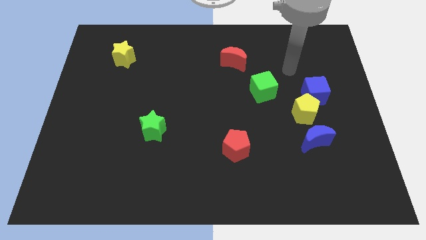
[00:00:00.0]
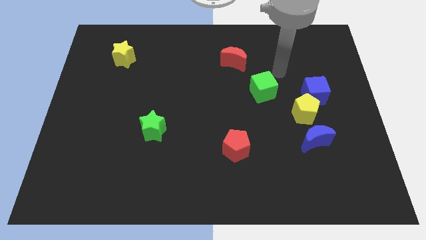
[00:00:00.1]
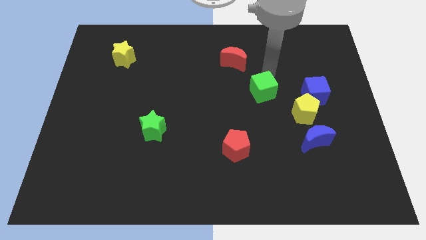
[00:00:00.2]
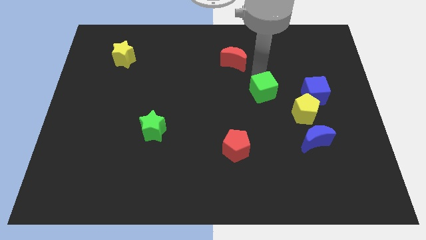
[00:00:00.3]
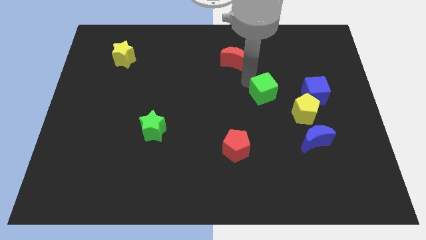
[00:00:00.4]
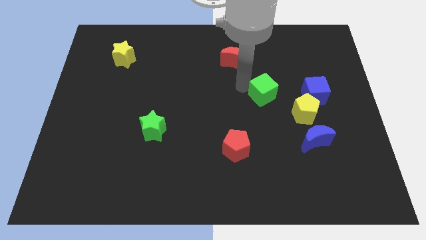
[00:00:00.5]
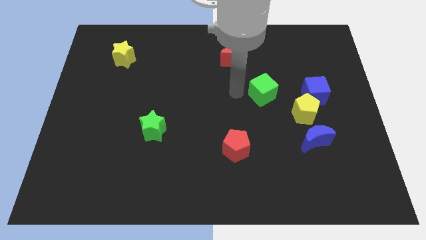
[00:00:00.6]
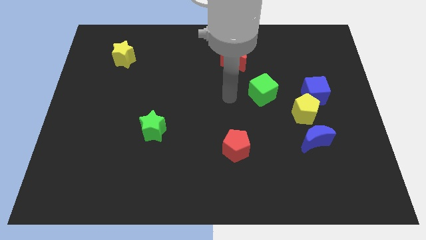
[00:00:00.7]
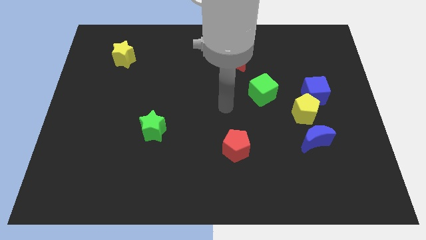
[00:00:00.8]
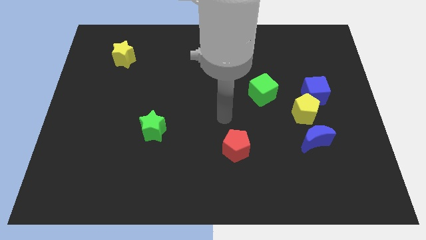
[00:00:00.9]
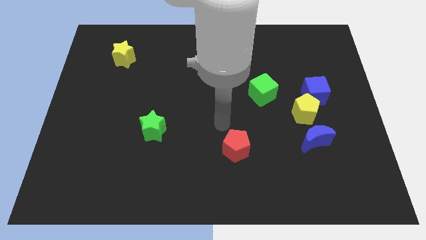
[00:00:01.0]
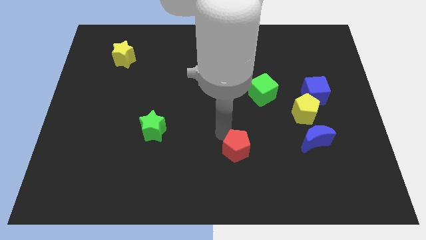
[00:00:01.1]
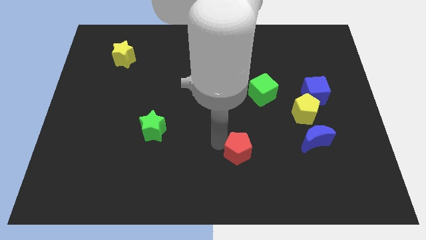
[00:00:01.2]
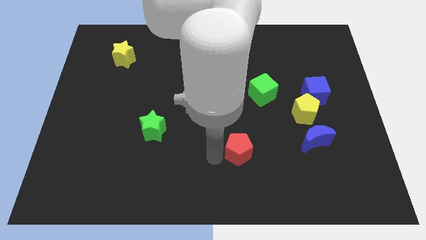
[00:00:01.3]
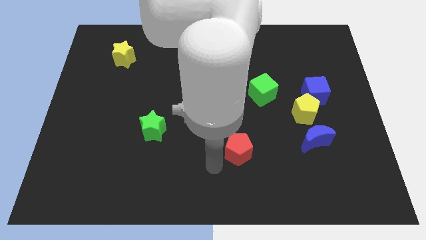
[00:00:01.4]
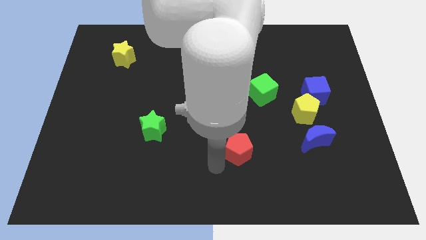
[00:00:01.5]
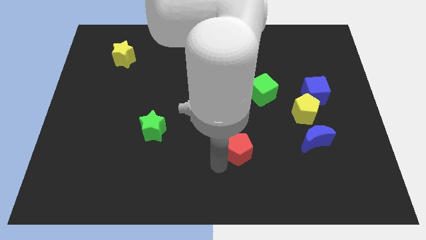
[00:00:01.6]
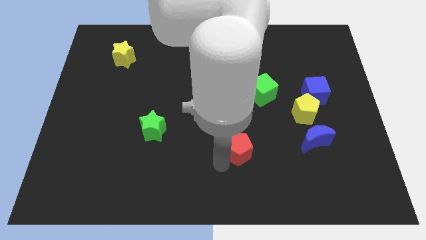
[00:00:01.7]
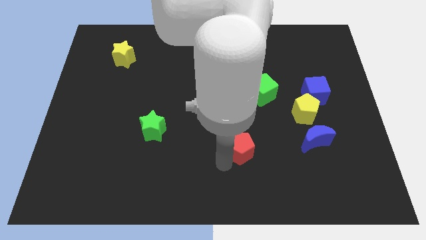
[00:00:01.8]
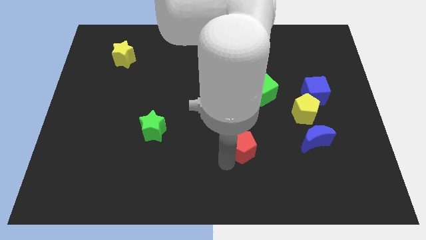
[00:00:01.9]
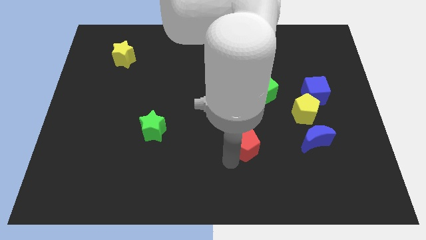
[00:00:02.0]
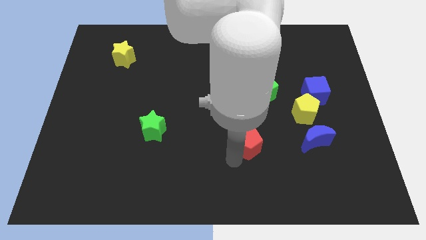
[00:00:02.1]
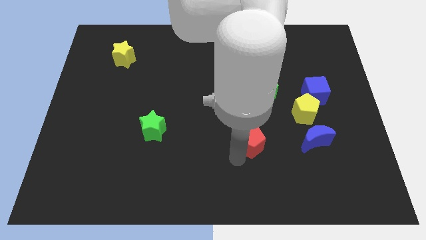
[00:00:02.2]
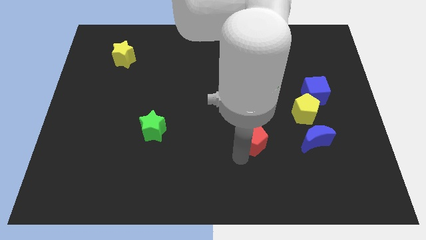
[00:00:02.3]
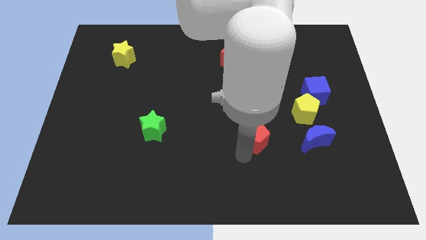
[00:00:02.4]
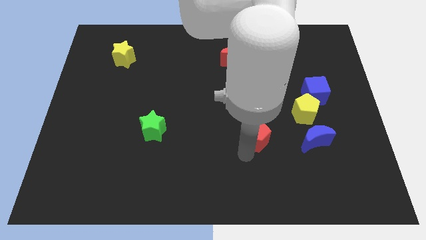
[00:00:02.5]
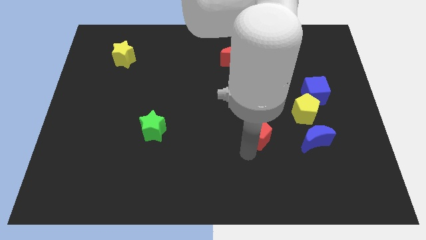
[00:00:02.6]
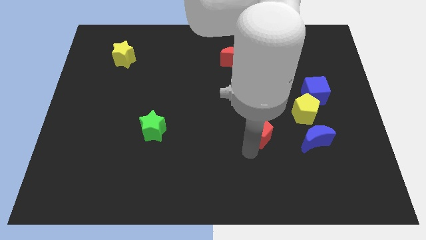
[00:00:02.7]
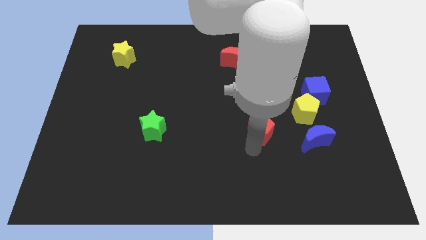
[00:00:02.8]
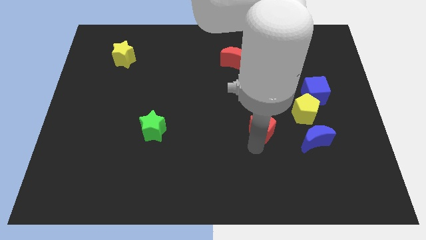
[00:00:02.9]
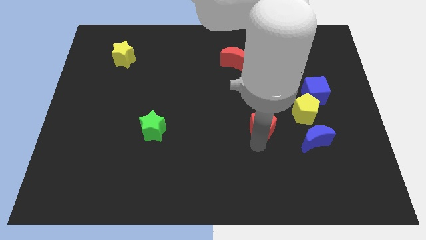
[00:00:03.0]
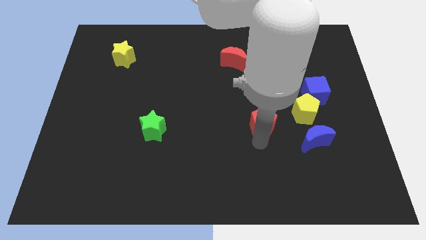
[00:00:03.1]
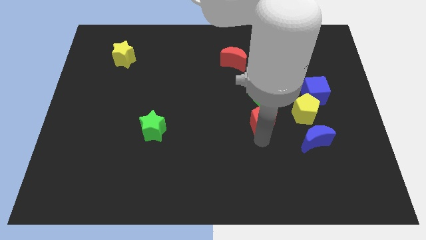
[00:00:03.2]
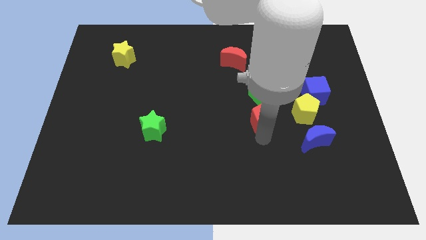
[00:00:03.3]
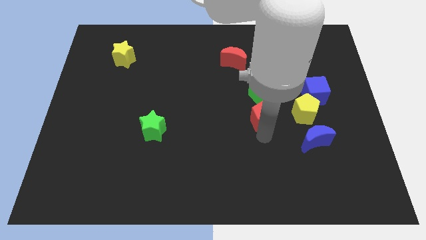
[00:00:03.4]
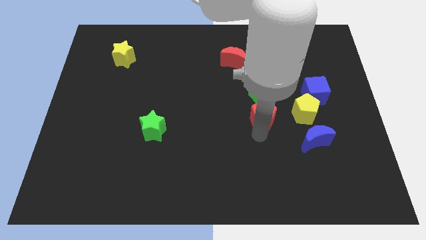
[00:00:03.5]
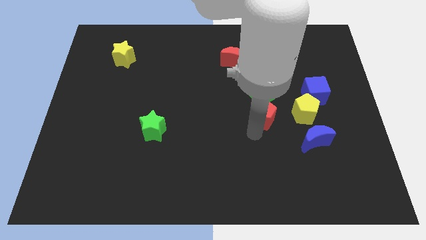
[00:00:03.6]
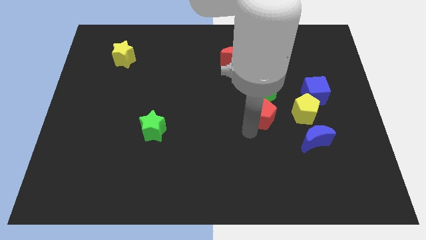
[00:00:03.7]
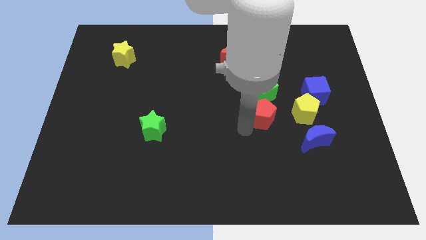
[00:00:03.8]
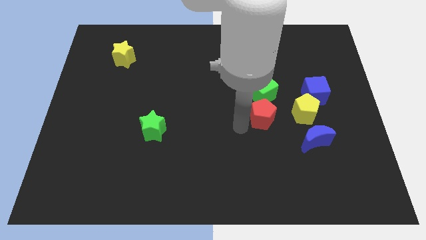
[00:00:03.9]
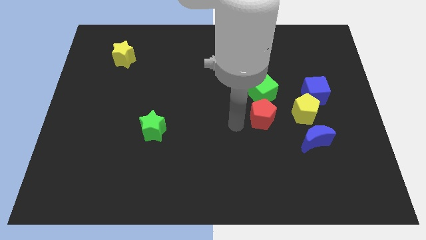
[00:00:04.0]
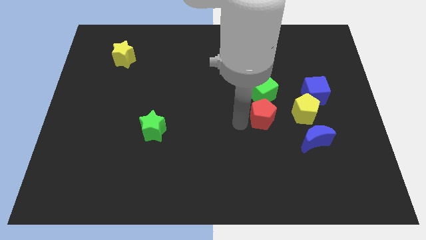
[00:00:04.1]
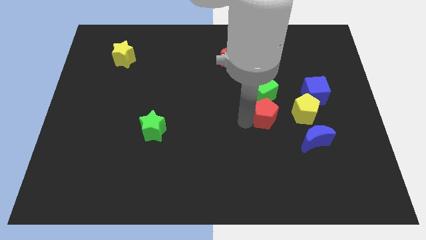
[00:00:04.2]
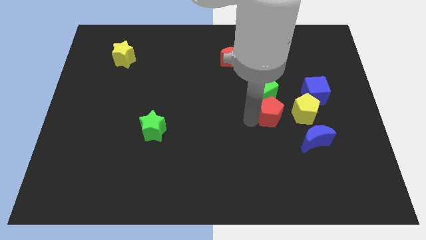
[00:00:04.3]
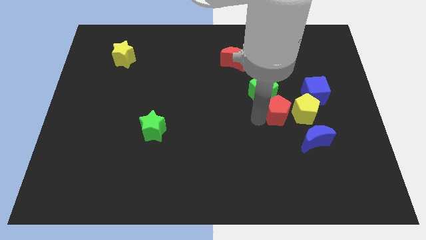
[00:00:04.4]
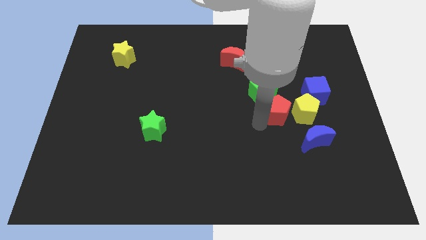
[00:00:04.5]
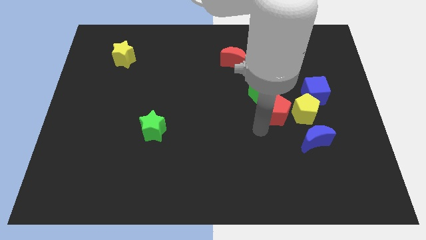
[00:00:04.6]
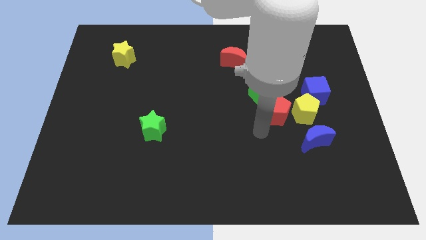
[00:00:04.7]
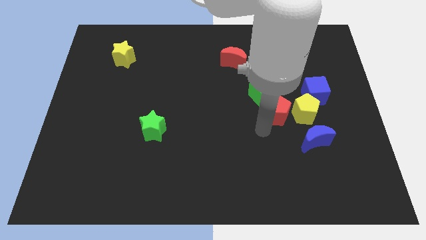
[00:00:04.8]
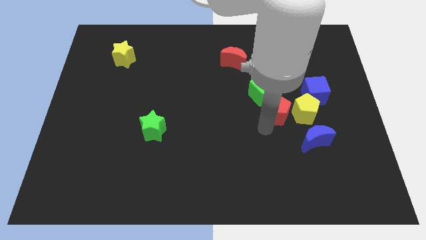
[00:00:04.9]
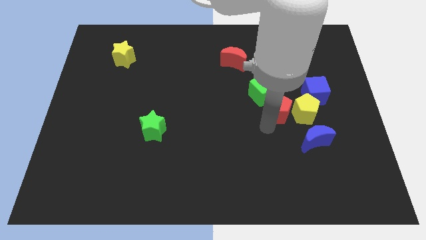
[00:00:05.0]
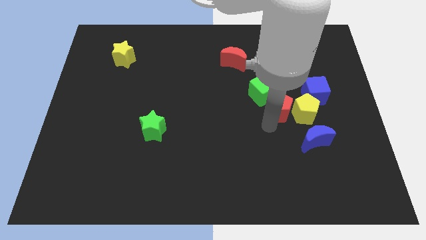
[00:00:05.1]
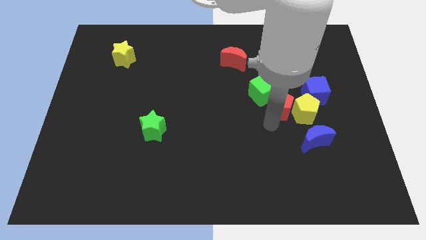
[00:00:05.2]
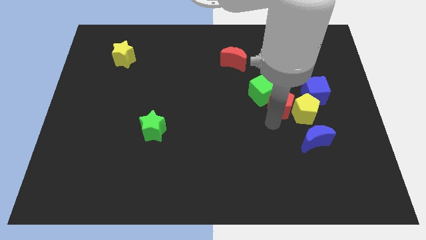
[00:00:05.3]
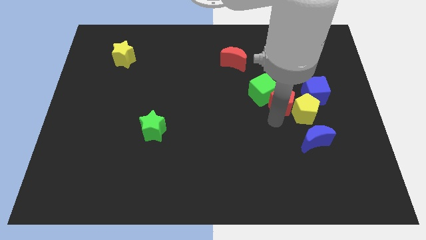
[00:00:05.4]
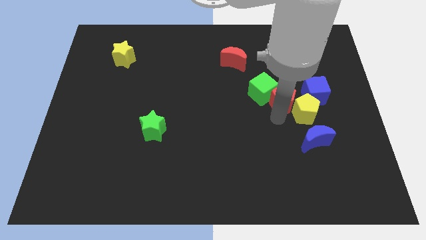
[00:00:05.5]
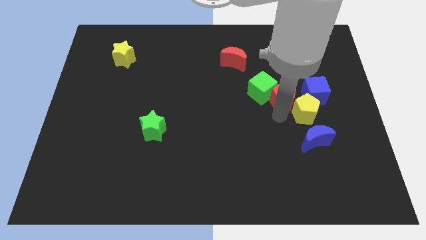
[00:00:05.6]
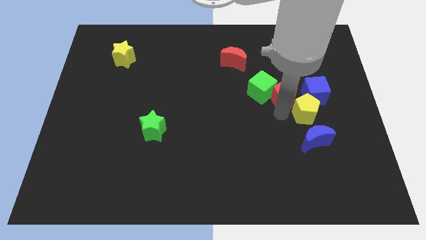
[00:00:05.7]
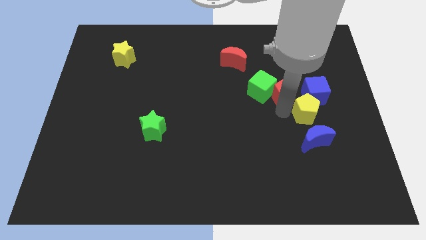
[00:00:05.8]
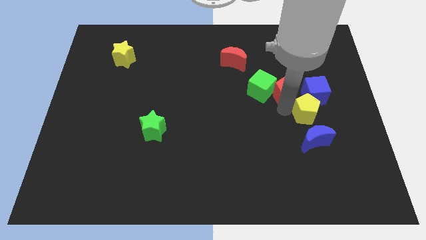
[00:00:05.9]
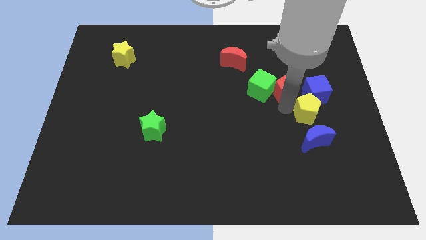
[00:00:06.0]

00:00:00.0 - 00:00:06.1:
slide the red pentagon up and right diagonally

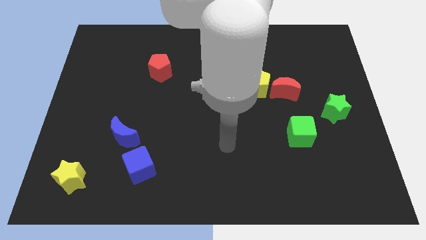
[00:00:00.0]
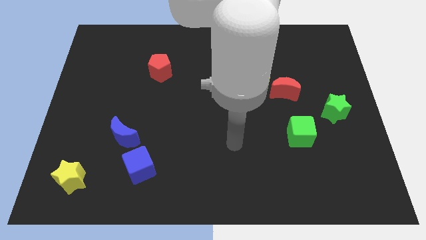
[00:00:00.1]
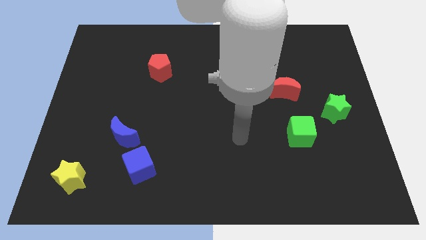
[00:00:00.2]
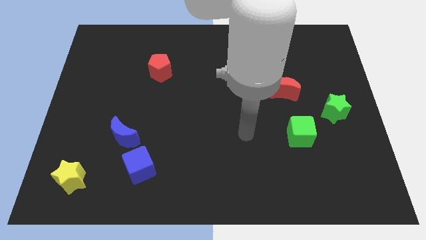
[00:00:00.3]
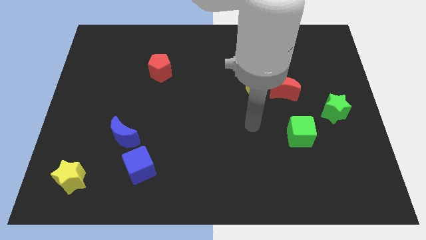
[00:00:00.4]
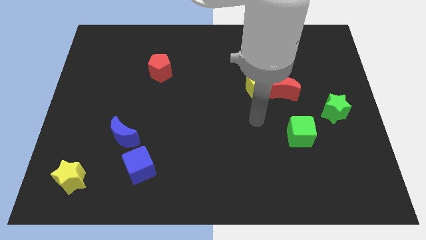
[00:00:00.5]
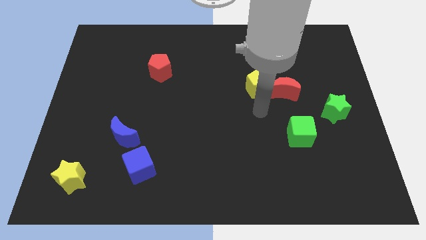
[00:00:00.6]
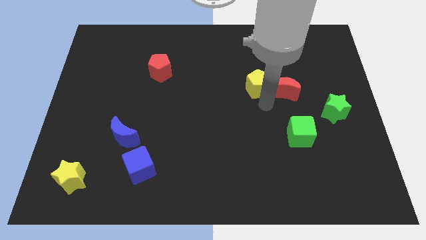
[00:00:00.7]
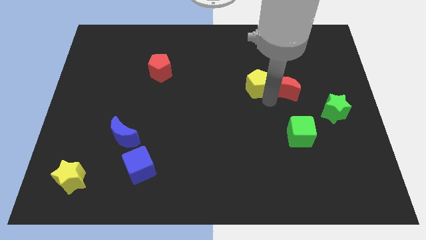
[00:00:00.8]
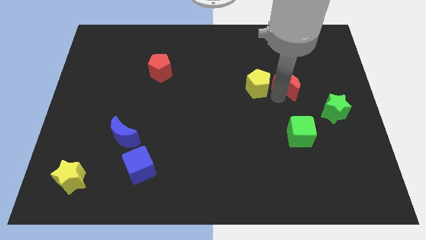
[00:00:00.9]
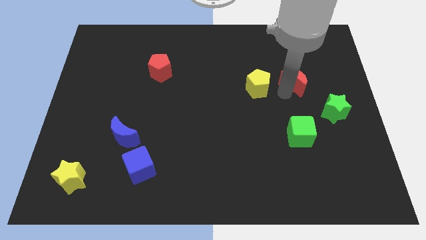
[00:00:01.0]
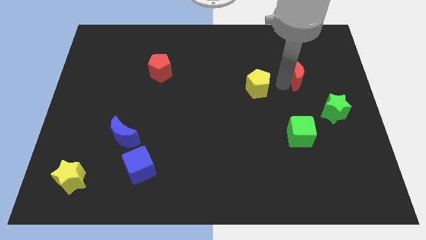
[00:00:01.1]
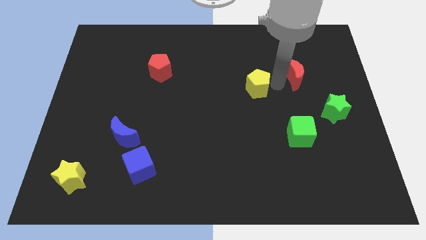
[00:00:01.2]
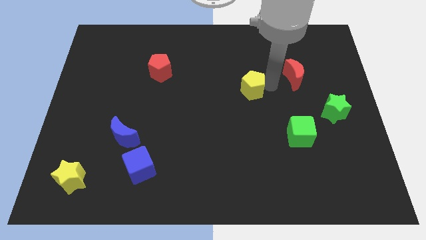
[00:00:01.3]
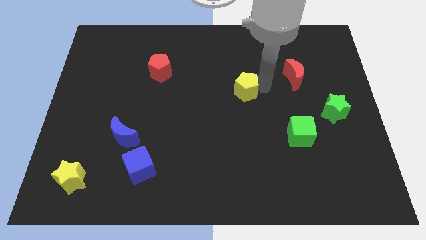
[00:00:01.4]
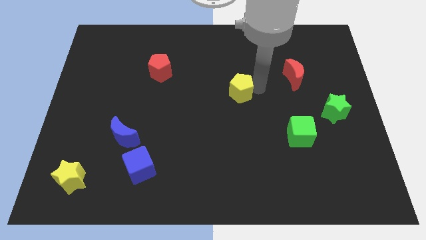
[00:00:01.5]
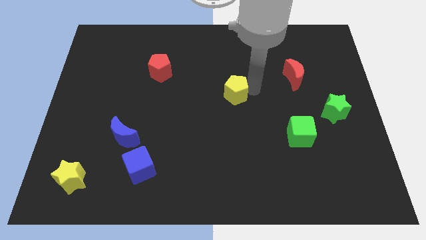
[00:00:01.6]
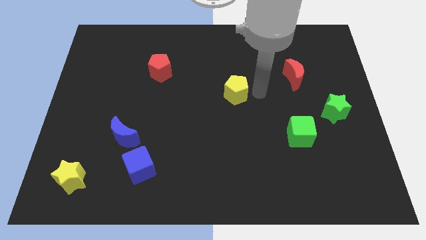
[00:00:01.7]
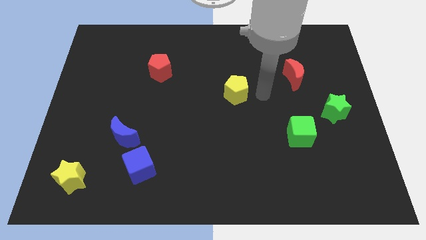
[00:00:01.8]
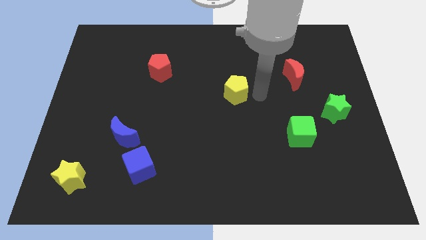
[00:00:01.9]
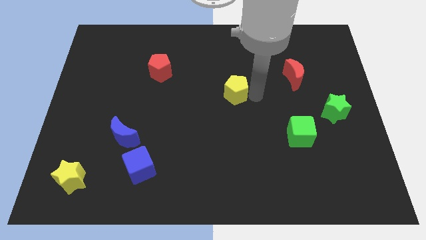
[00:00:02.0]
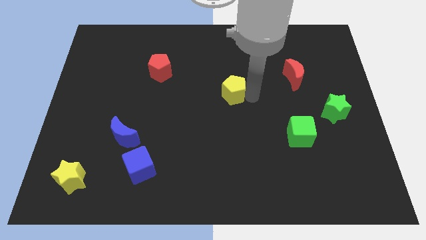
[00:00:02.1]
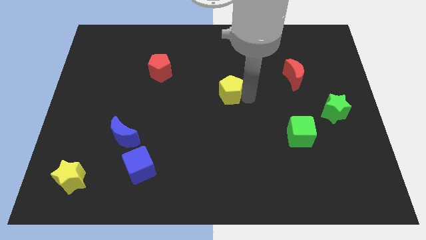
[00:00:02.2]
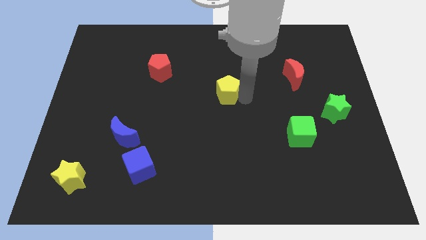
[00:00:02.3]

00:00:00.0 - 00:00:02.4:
slide the yellow pentagon to the left slightly
